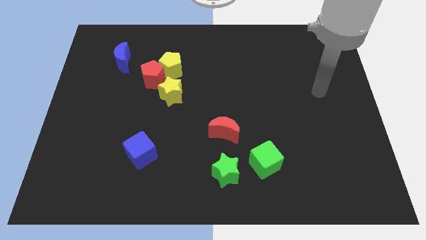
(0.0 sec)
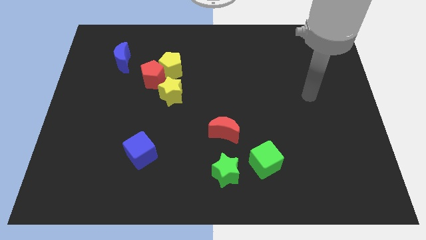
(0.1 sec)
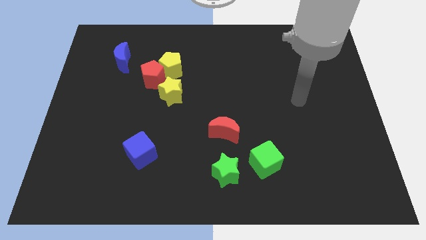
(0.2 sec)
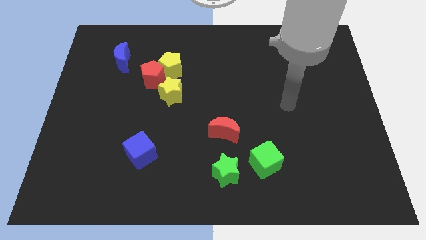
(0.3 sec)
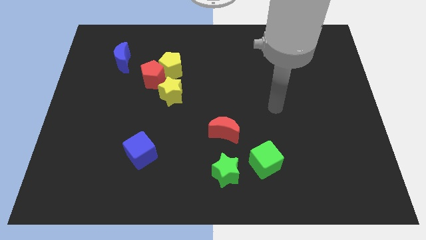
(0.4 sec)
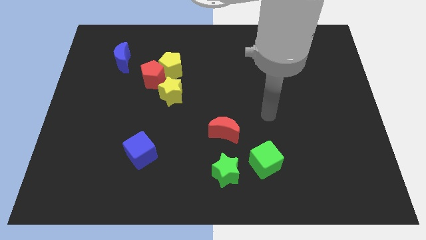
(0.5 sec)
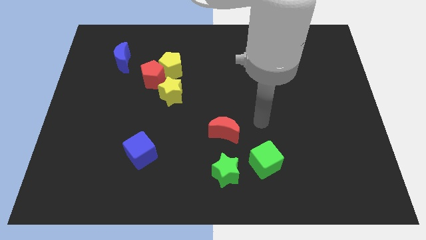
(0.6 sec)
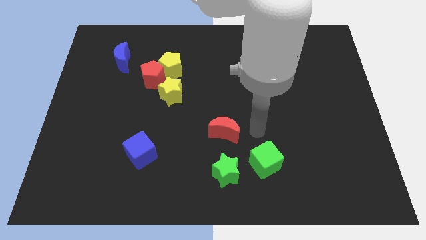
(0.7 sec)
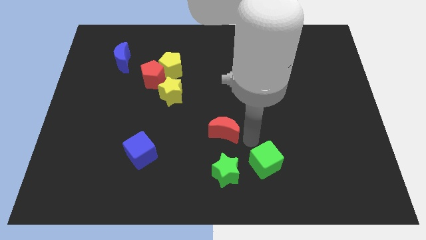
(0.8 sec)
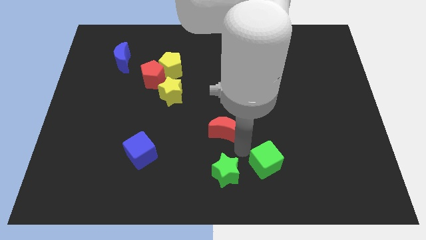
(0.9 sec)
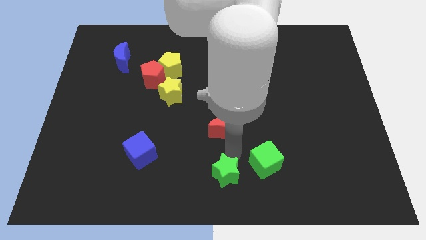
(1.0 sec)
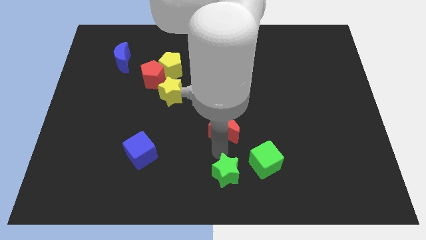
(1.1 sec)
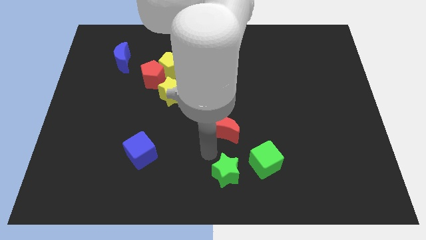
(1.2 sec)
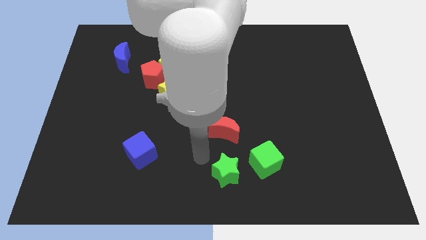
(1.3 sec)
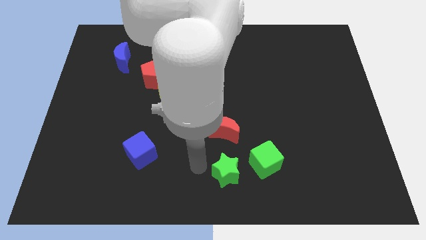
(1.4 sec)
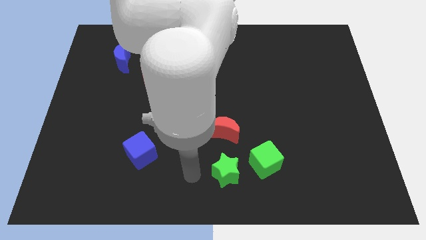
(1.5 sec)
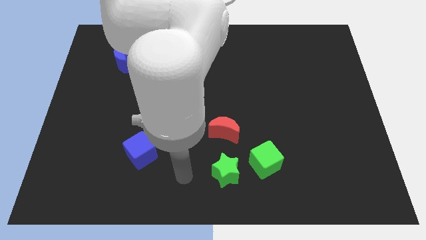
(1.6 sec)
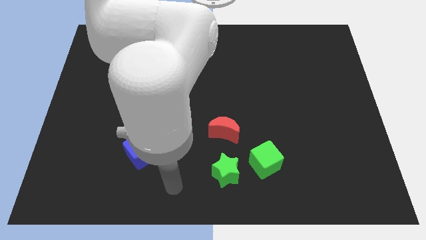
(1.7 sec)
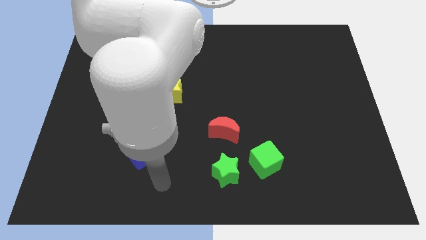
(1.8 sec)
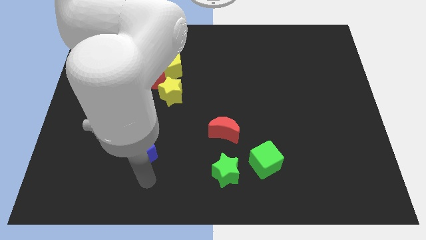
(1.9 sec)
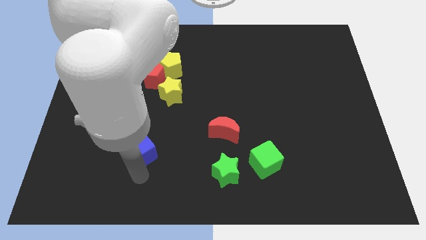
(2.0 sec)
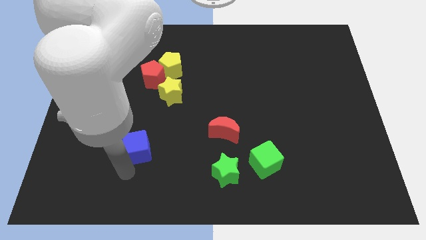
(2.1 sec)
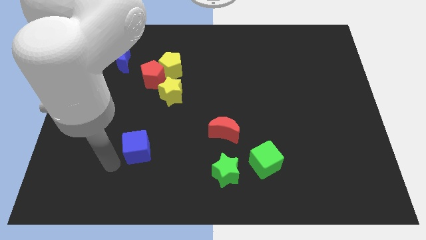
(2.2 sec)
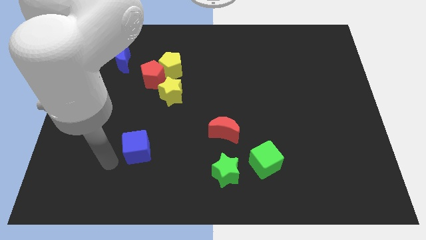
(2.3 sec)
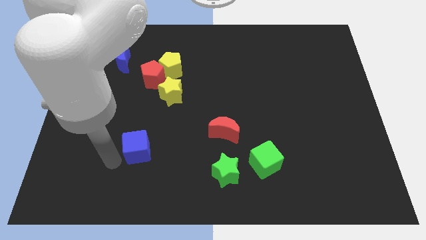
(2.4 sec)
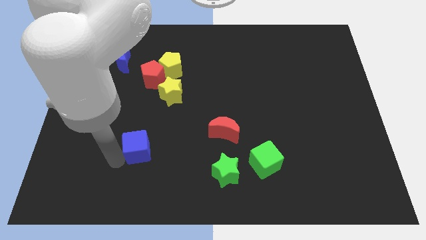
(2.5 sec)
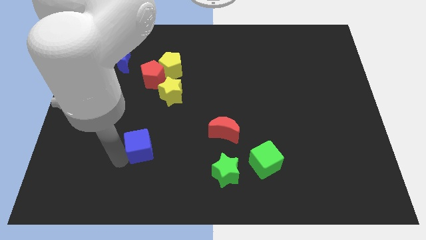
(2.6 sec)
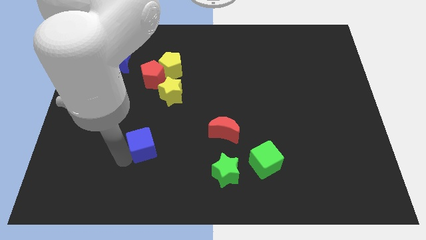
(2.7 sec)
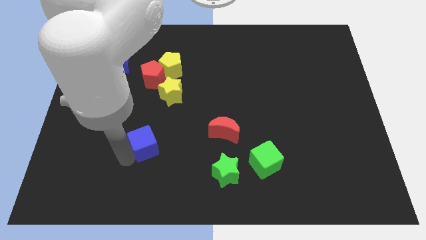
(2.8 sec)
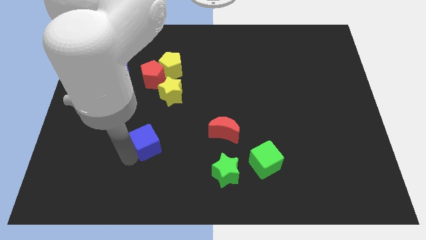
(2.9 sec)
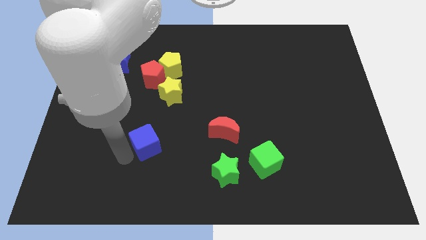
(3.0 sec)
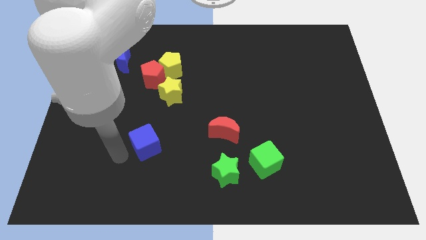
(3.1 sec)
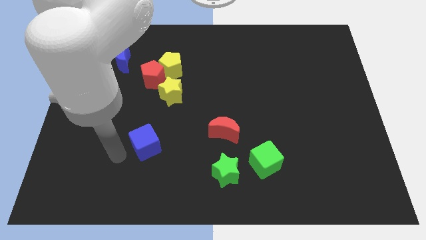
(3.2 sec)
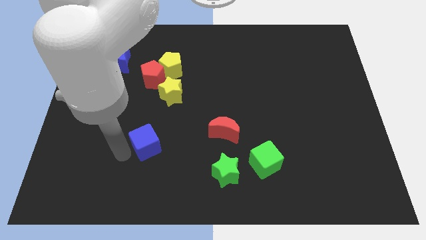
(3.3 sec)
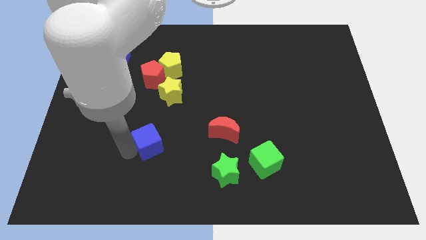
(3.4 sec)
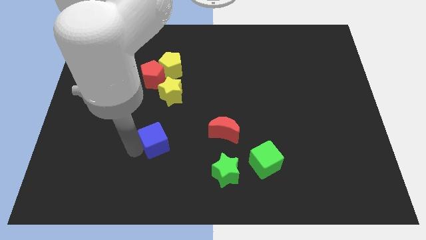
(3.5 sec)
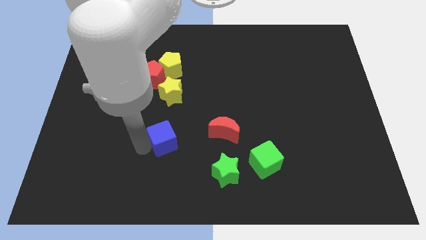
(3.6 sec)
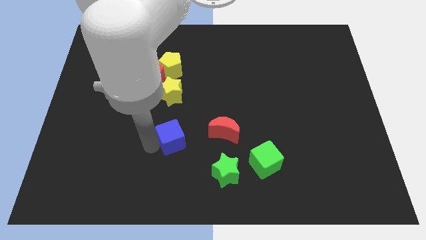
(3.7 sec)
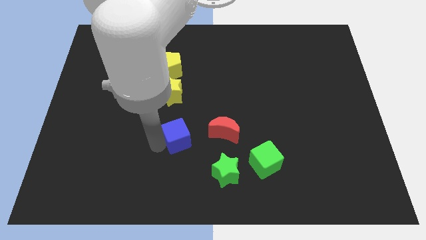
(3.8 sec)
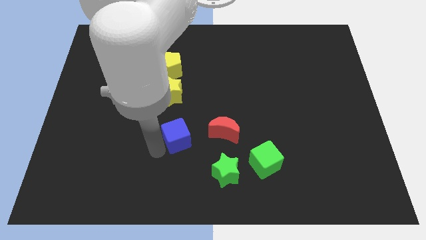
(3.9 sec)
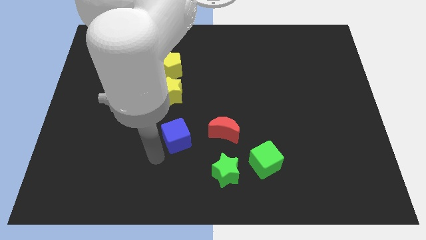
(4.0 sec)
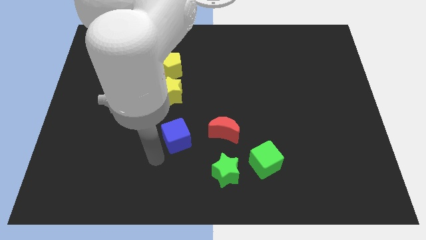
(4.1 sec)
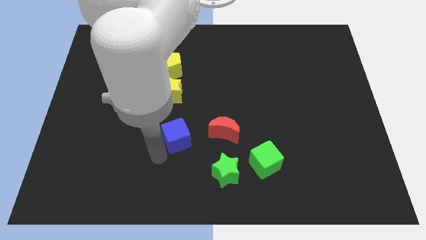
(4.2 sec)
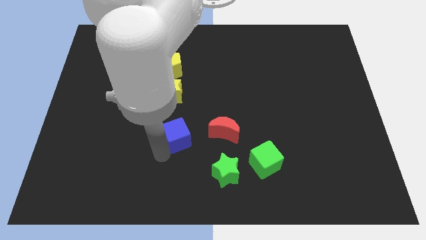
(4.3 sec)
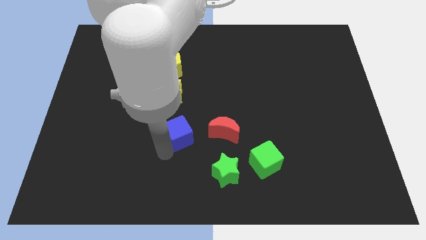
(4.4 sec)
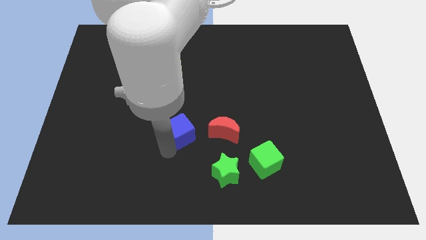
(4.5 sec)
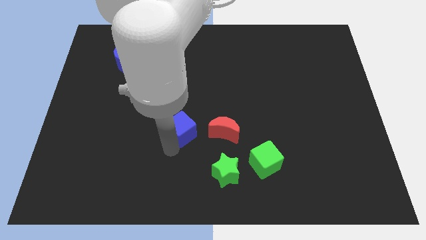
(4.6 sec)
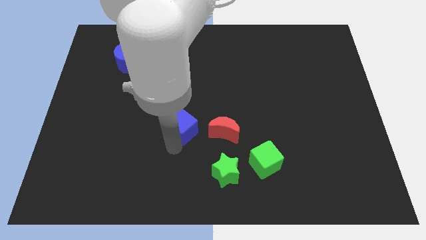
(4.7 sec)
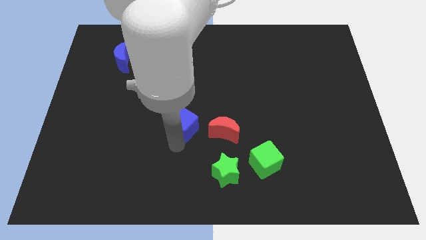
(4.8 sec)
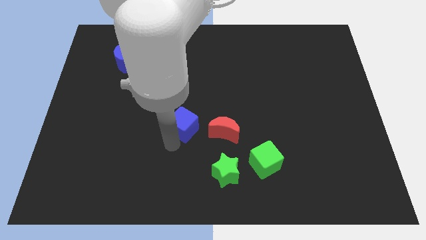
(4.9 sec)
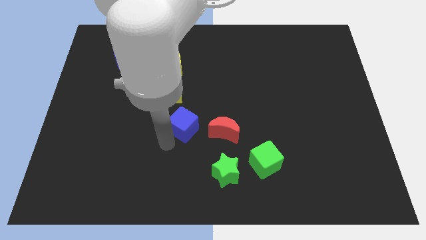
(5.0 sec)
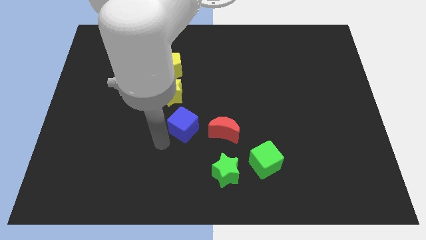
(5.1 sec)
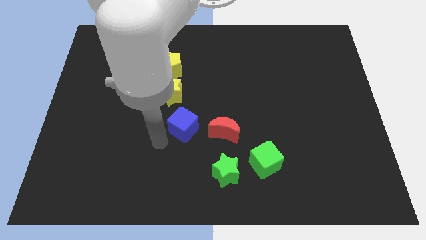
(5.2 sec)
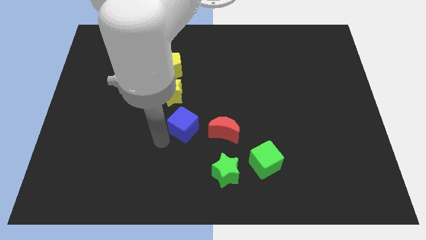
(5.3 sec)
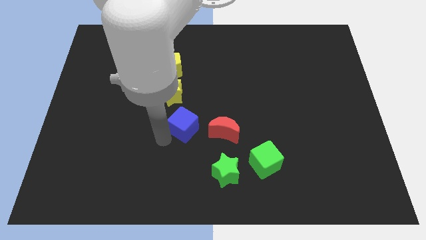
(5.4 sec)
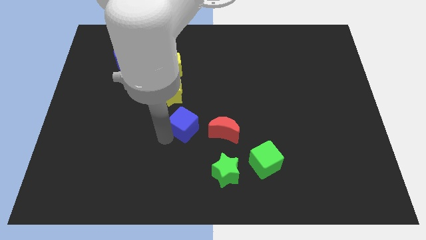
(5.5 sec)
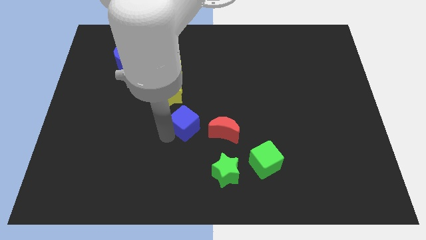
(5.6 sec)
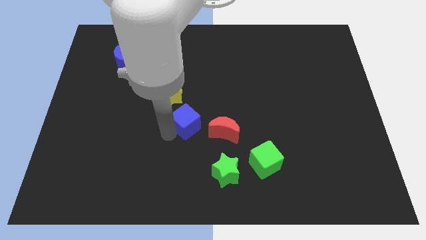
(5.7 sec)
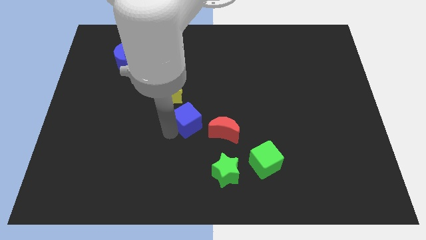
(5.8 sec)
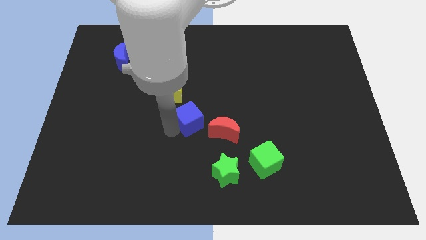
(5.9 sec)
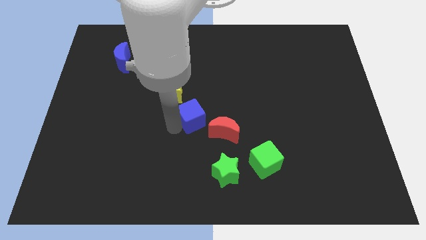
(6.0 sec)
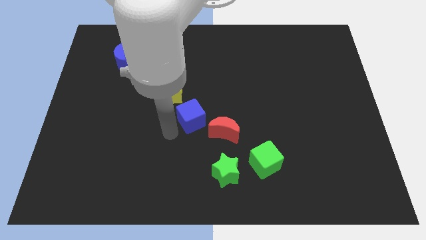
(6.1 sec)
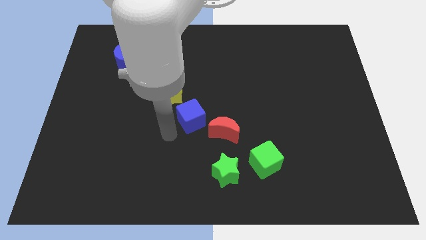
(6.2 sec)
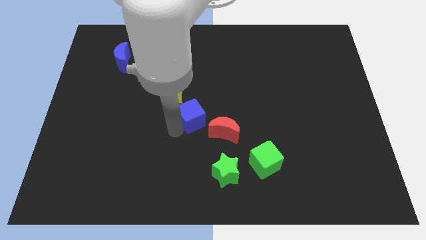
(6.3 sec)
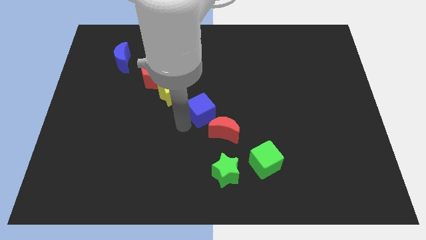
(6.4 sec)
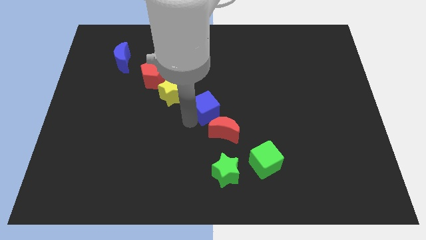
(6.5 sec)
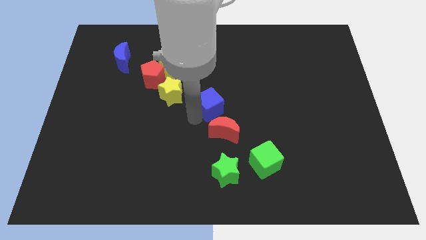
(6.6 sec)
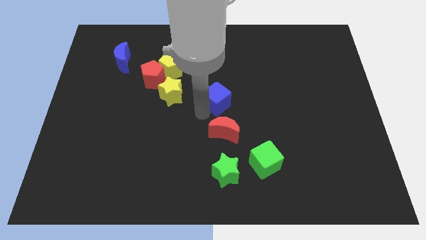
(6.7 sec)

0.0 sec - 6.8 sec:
push the blue cube upwards and right diagonally

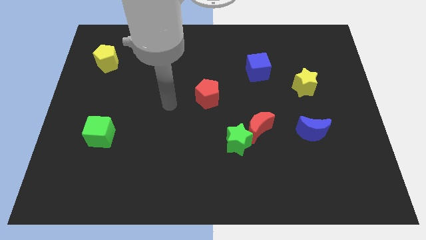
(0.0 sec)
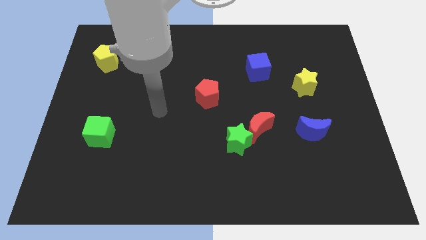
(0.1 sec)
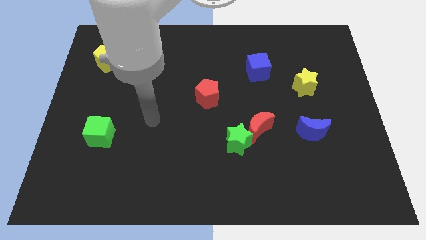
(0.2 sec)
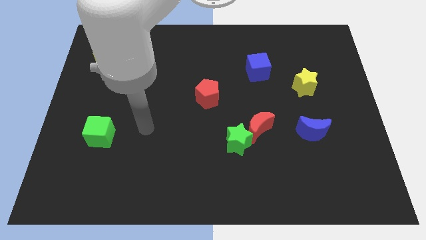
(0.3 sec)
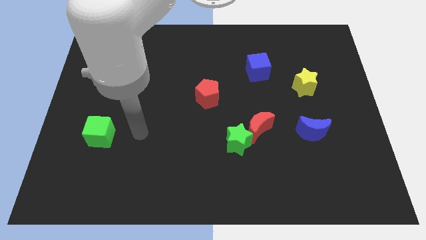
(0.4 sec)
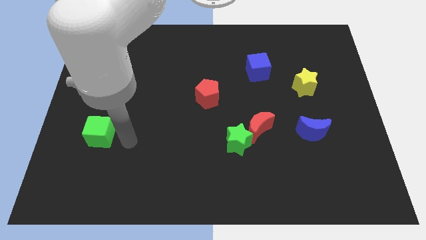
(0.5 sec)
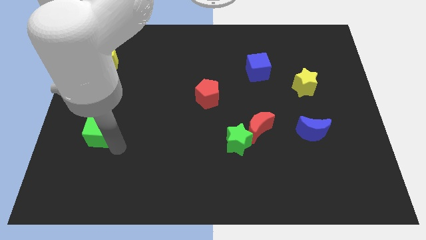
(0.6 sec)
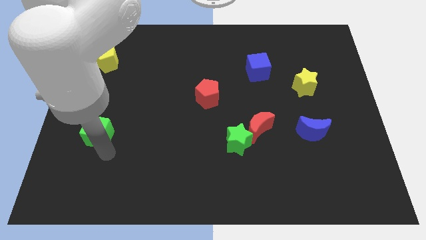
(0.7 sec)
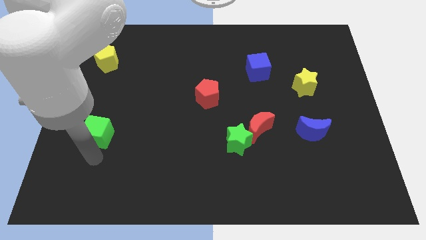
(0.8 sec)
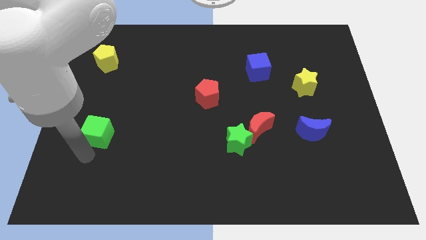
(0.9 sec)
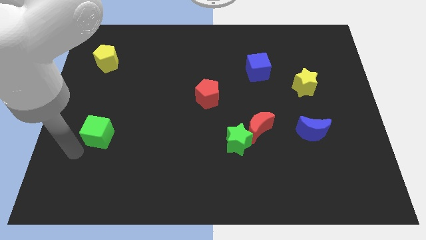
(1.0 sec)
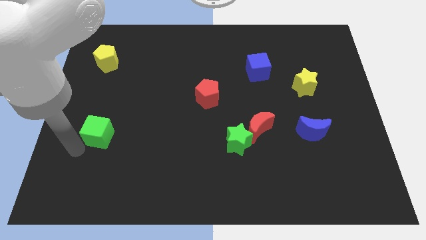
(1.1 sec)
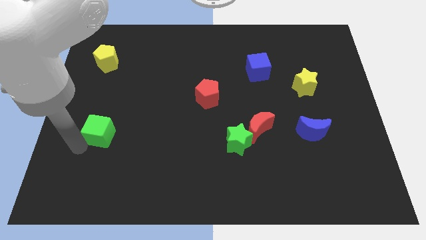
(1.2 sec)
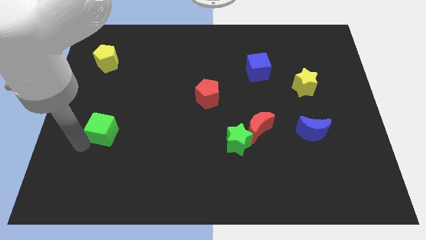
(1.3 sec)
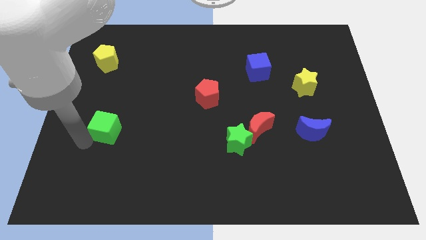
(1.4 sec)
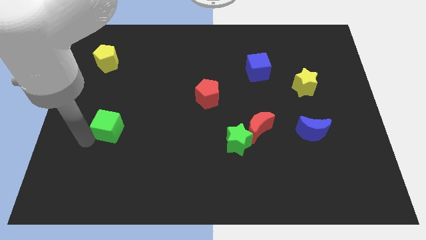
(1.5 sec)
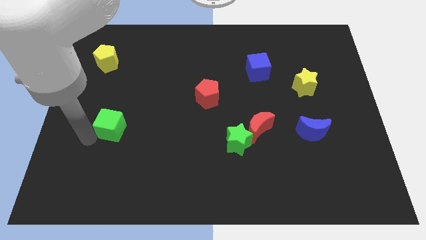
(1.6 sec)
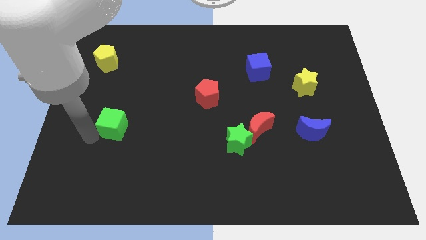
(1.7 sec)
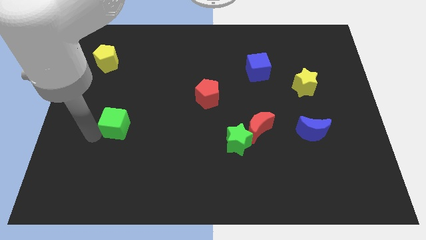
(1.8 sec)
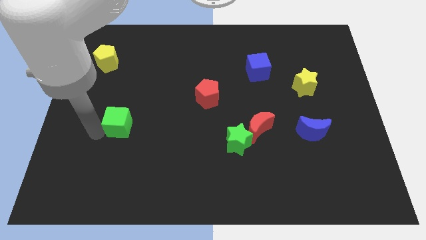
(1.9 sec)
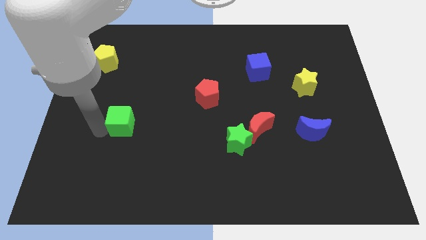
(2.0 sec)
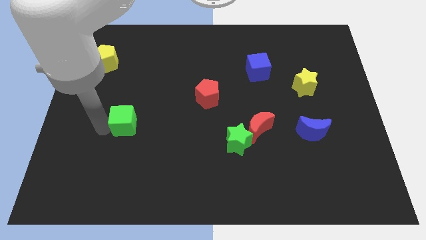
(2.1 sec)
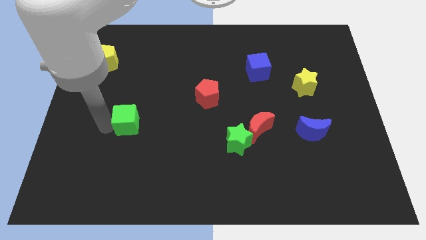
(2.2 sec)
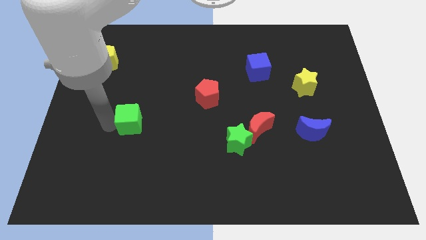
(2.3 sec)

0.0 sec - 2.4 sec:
push the green cube upwards and to the right a bit
